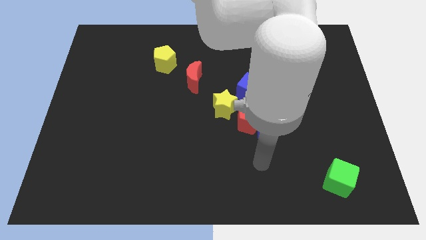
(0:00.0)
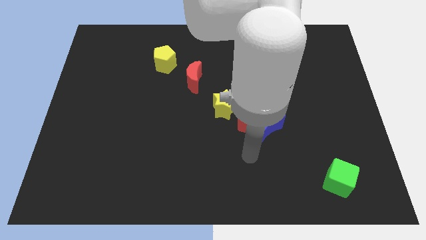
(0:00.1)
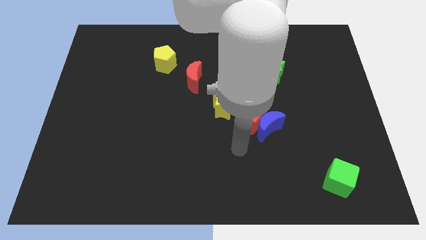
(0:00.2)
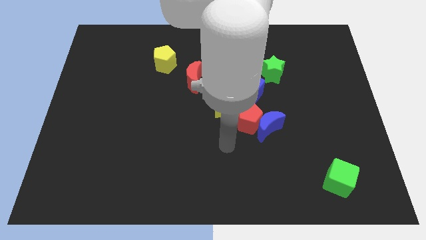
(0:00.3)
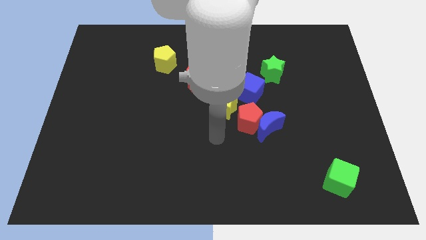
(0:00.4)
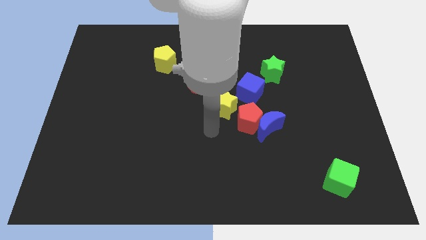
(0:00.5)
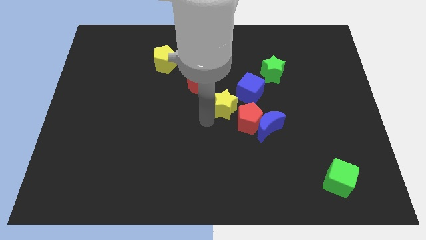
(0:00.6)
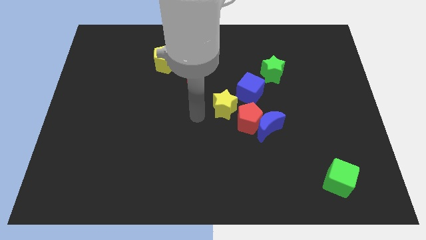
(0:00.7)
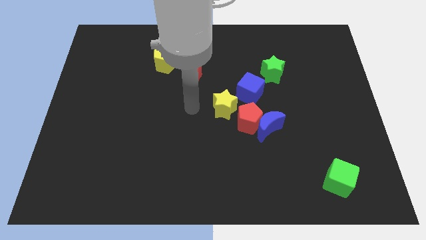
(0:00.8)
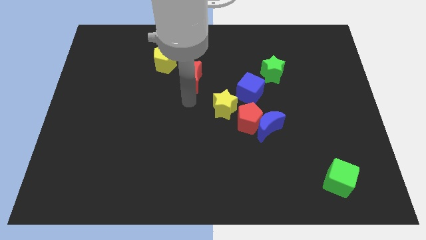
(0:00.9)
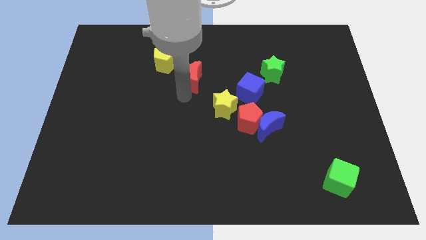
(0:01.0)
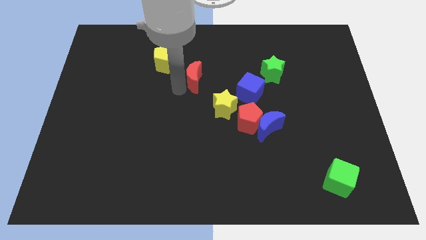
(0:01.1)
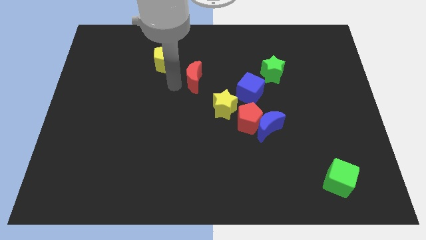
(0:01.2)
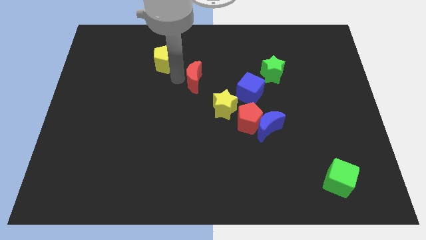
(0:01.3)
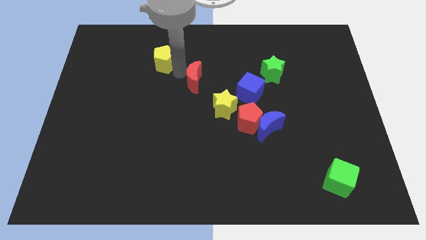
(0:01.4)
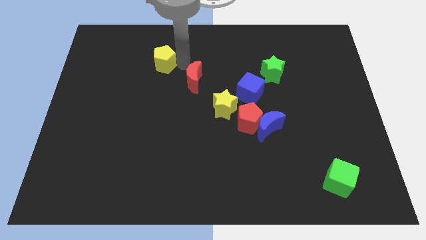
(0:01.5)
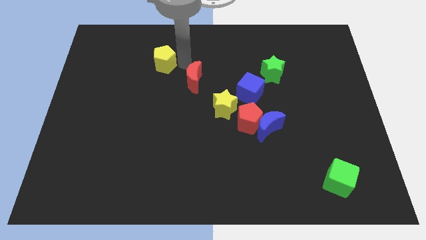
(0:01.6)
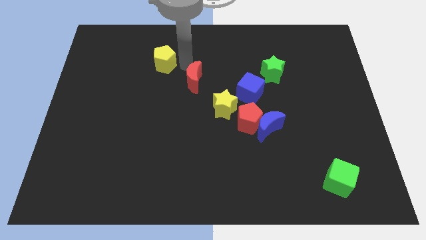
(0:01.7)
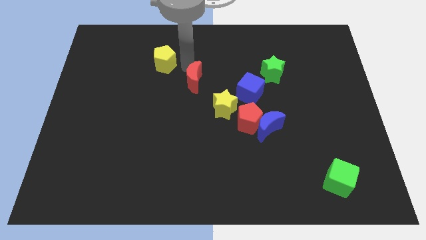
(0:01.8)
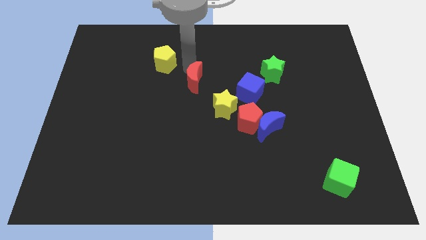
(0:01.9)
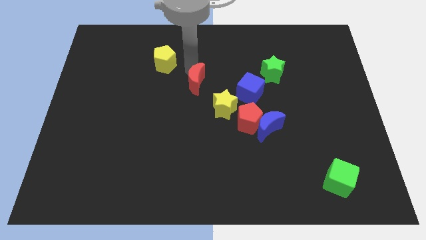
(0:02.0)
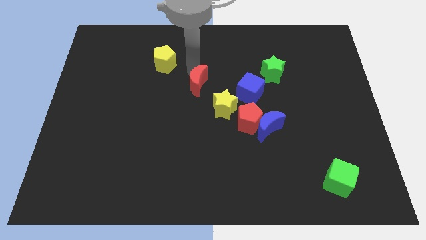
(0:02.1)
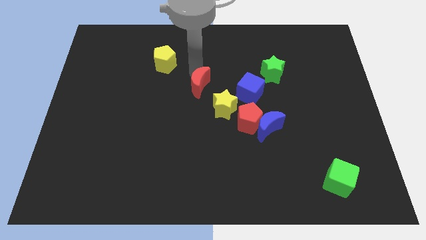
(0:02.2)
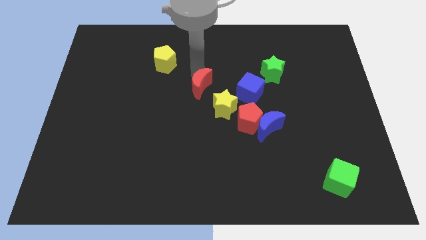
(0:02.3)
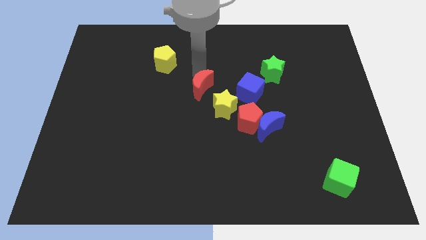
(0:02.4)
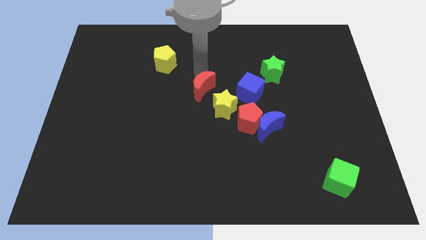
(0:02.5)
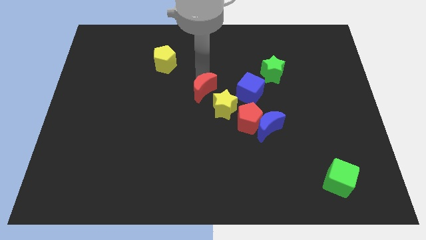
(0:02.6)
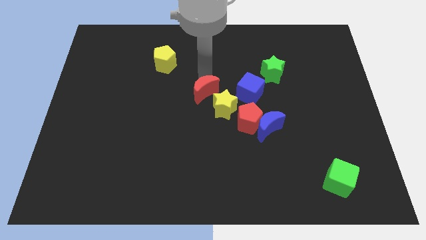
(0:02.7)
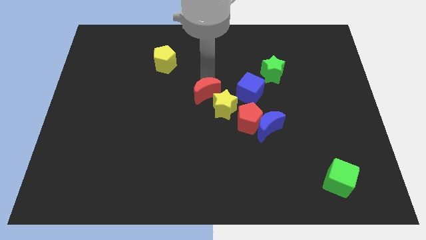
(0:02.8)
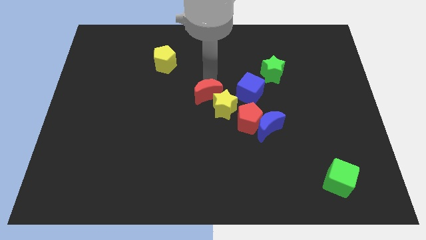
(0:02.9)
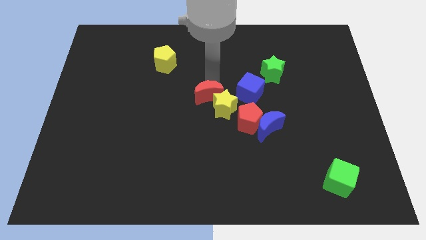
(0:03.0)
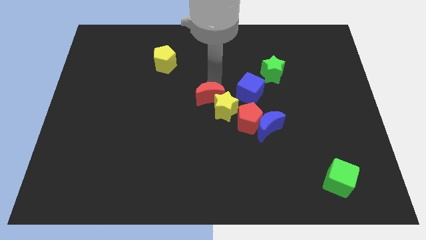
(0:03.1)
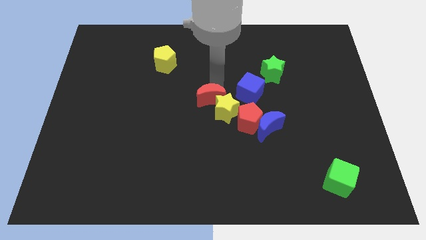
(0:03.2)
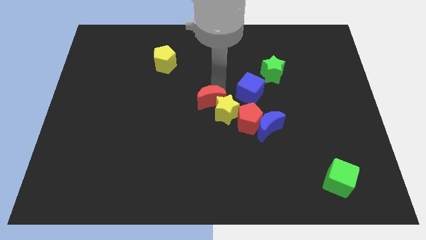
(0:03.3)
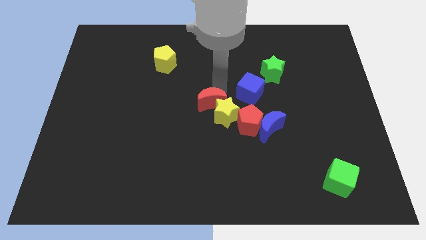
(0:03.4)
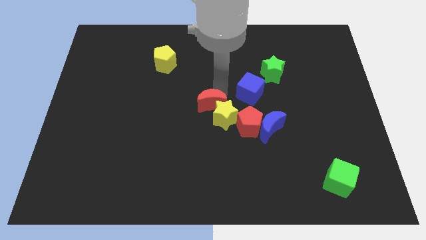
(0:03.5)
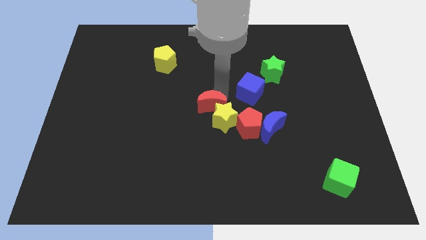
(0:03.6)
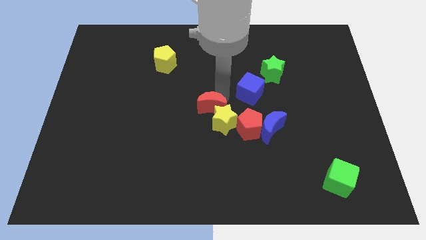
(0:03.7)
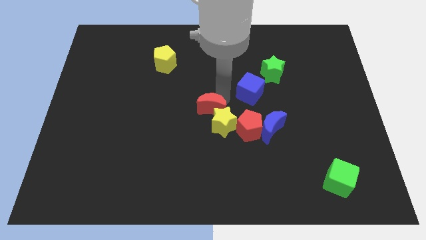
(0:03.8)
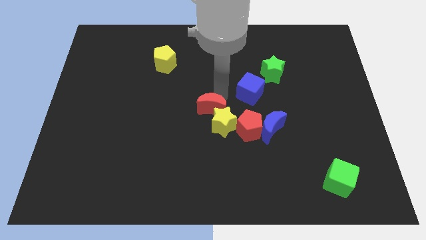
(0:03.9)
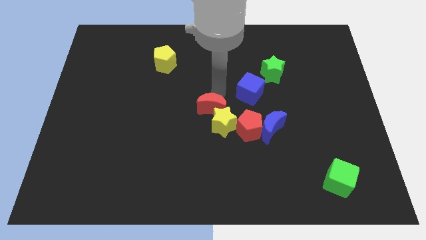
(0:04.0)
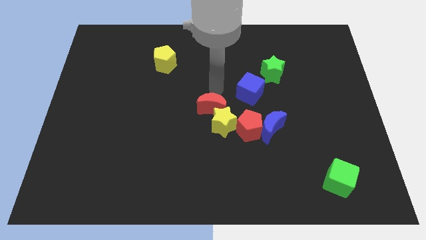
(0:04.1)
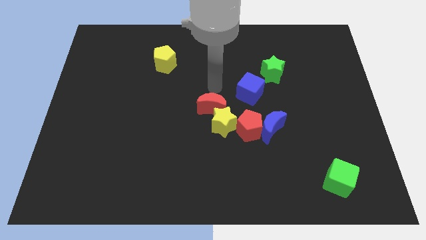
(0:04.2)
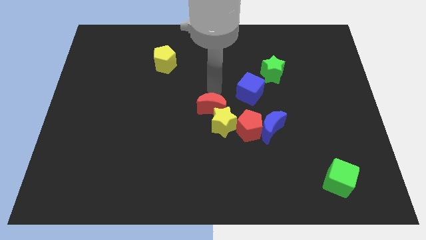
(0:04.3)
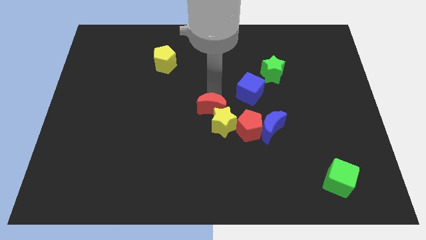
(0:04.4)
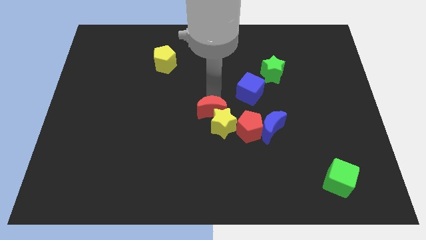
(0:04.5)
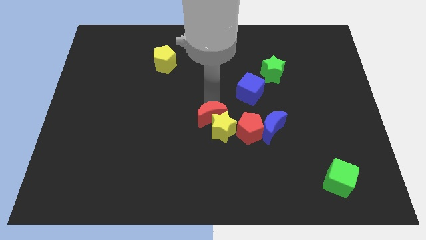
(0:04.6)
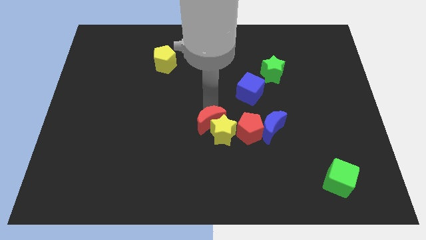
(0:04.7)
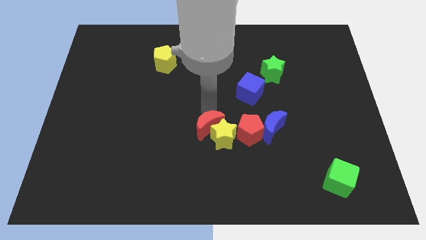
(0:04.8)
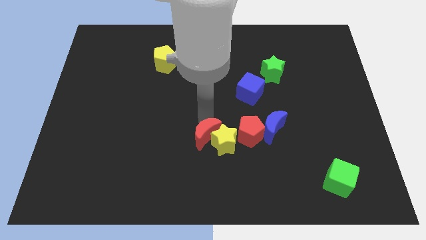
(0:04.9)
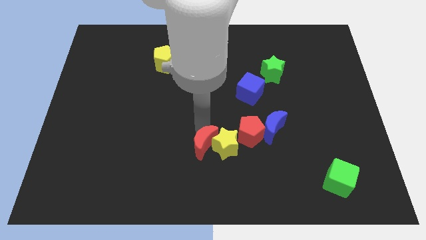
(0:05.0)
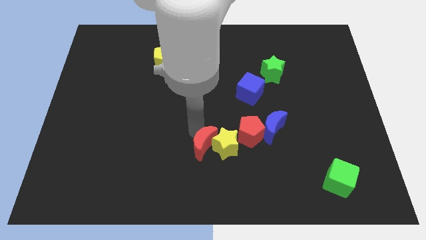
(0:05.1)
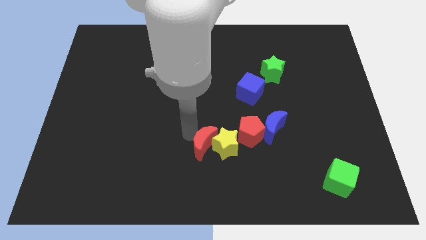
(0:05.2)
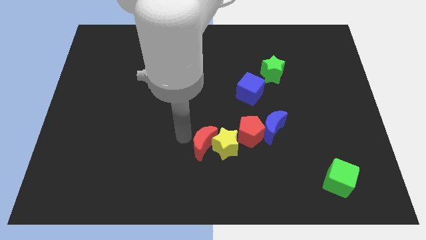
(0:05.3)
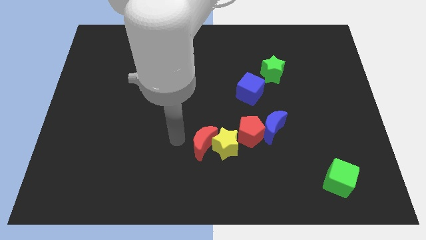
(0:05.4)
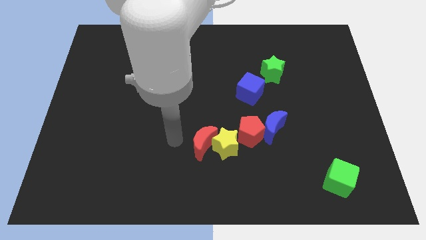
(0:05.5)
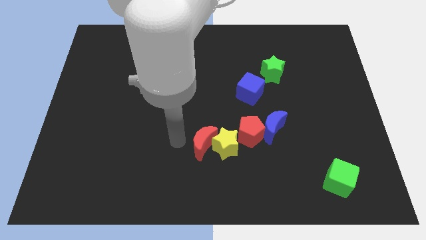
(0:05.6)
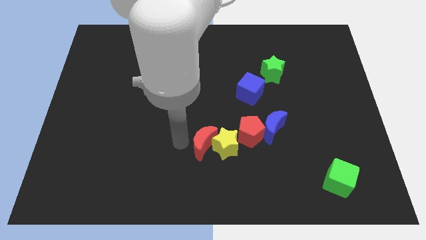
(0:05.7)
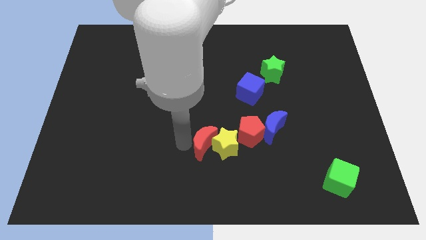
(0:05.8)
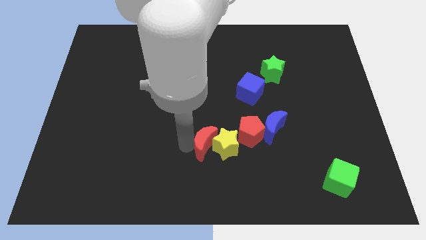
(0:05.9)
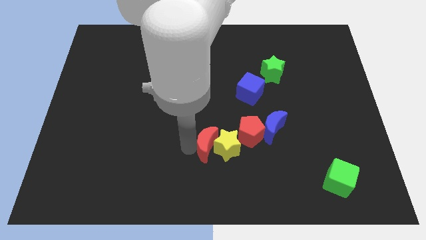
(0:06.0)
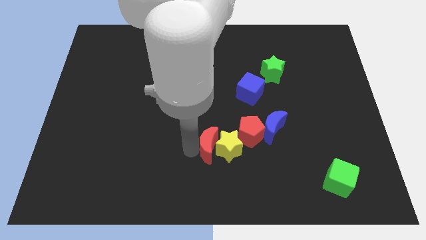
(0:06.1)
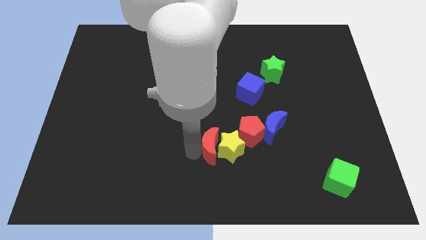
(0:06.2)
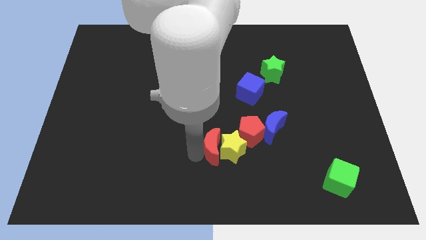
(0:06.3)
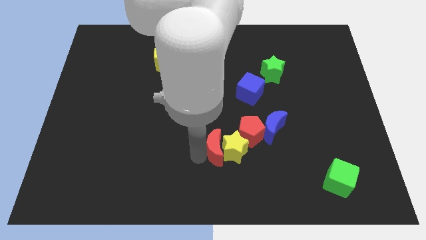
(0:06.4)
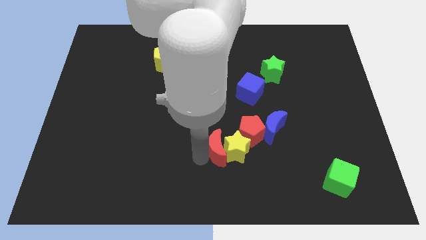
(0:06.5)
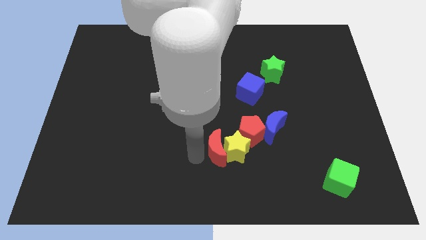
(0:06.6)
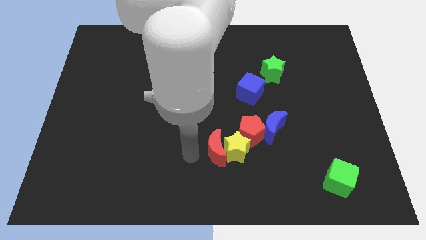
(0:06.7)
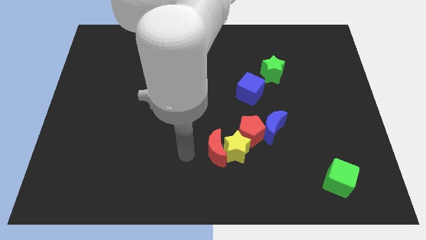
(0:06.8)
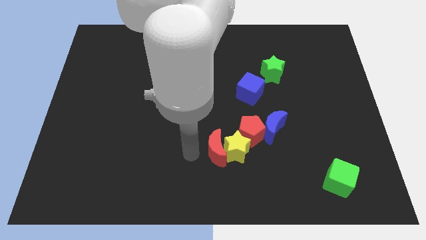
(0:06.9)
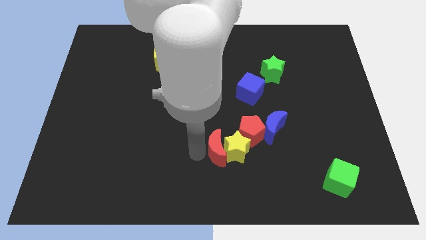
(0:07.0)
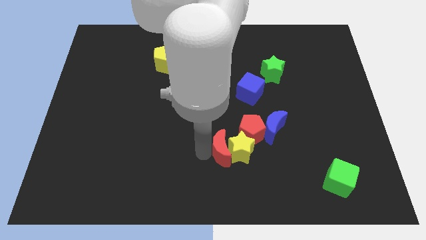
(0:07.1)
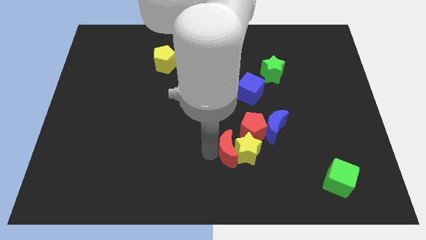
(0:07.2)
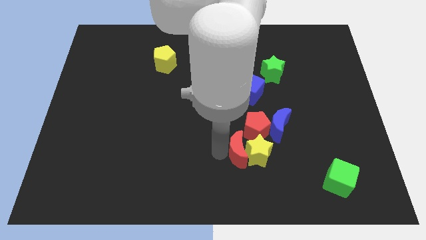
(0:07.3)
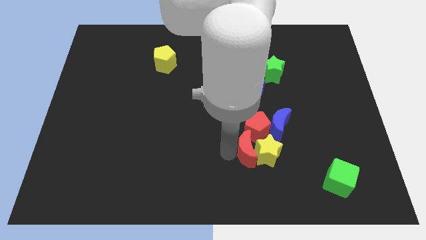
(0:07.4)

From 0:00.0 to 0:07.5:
push the red moon downwards and then right

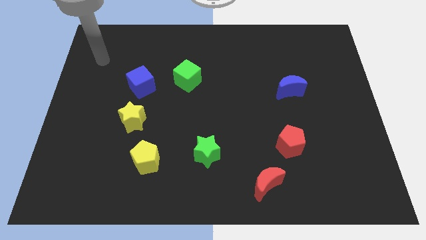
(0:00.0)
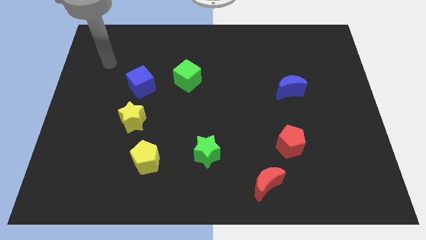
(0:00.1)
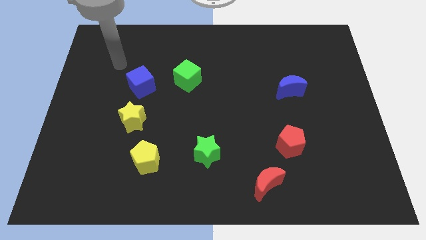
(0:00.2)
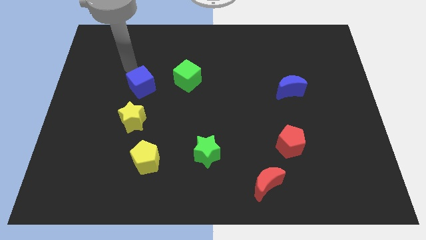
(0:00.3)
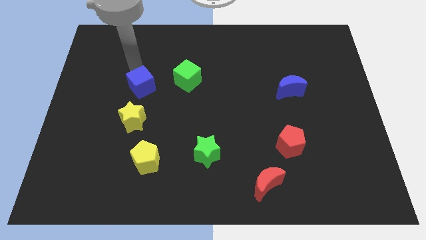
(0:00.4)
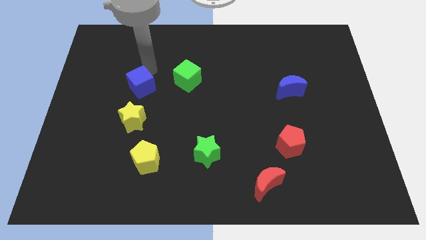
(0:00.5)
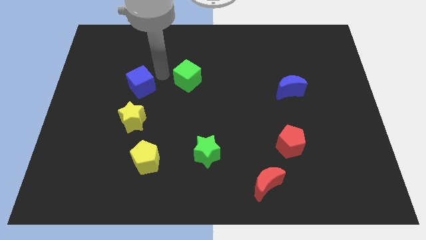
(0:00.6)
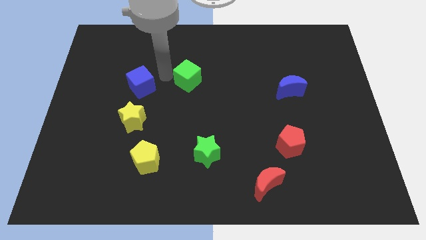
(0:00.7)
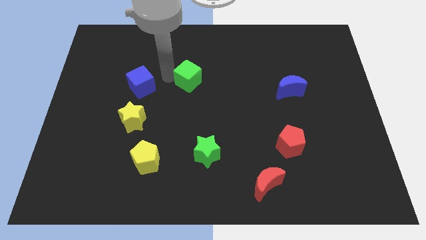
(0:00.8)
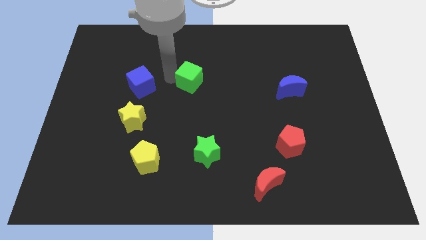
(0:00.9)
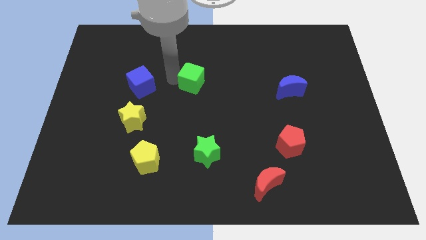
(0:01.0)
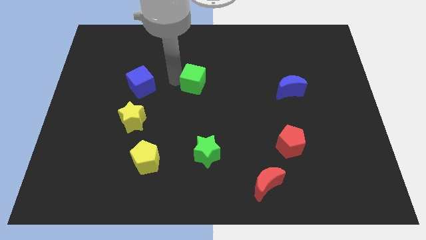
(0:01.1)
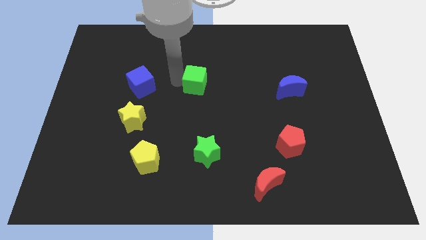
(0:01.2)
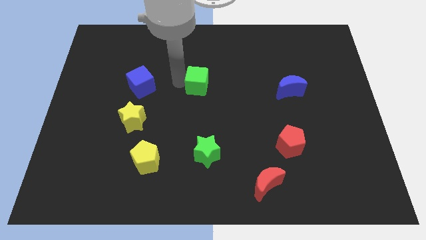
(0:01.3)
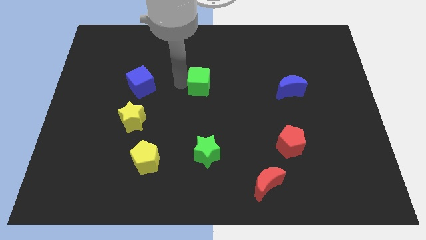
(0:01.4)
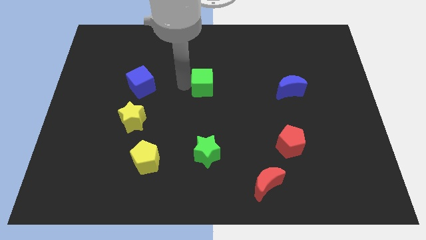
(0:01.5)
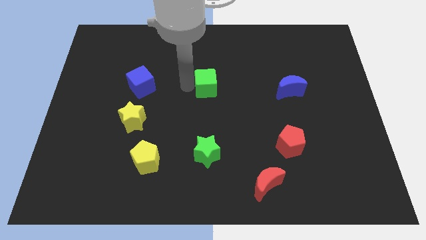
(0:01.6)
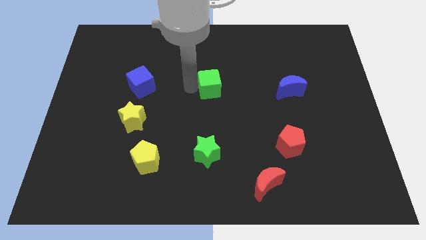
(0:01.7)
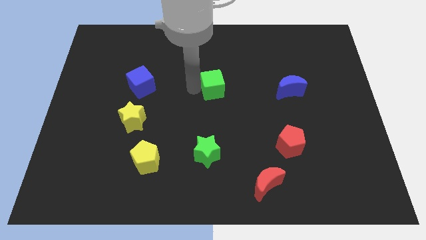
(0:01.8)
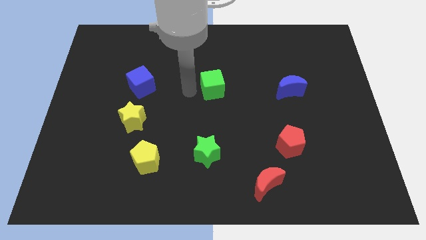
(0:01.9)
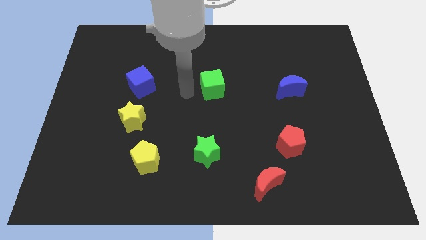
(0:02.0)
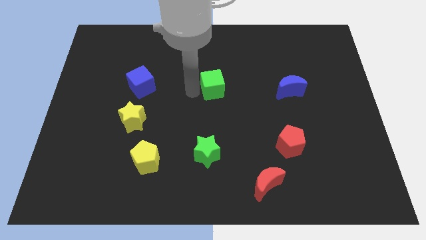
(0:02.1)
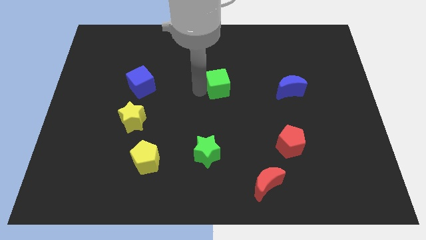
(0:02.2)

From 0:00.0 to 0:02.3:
push the green cube to the right a bit
